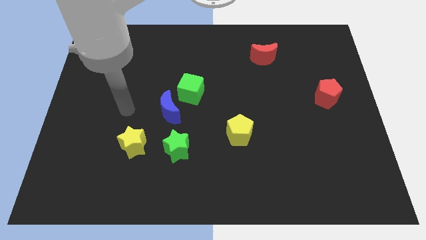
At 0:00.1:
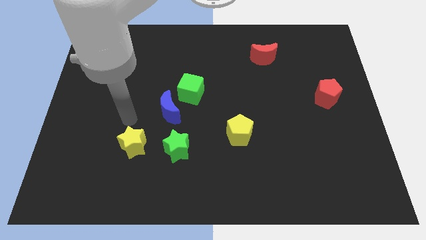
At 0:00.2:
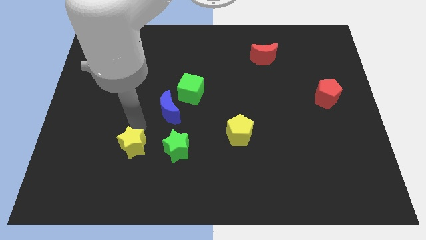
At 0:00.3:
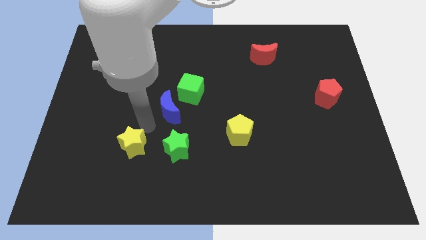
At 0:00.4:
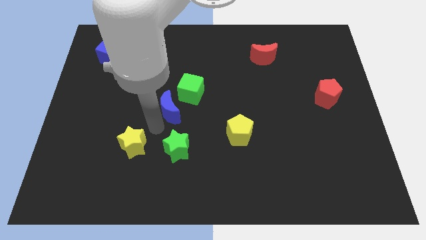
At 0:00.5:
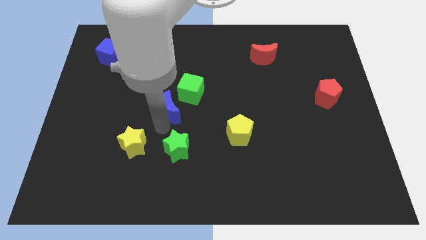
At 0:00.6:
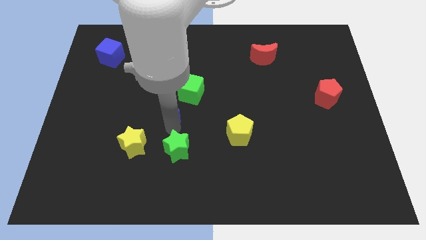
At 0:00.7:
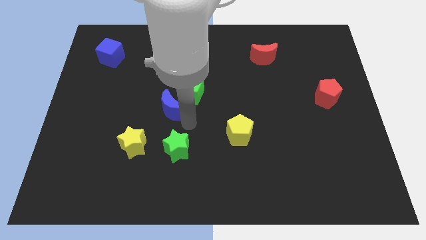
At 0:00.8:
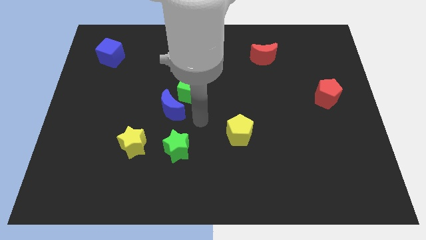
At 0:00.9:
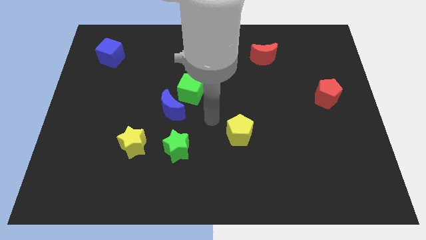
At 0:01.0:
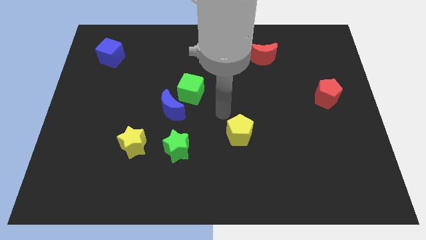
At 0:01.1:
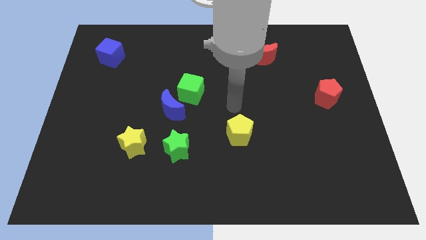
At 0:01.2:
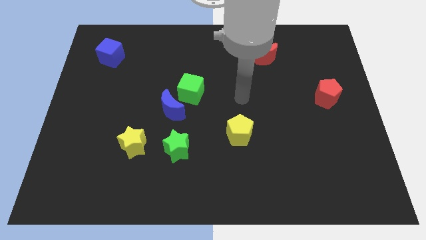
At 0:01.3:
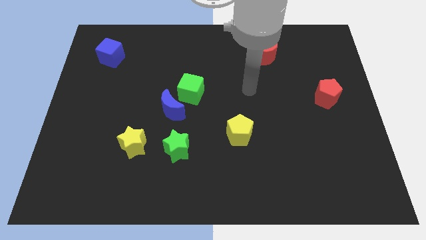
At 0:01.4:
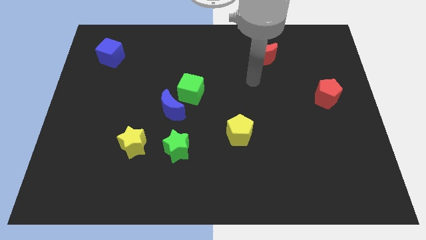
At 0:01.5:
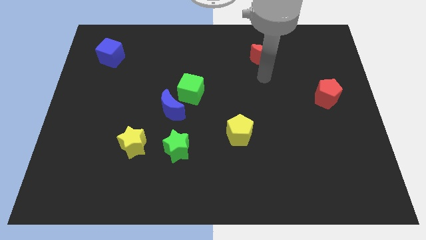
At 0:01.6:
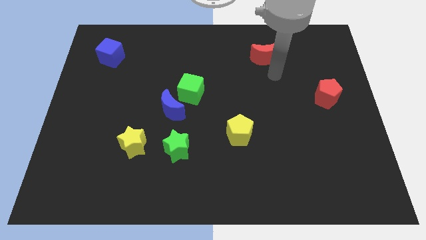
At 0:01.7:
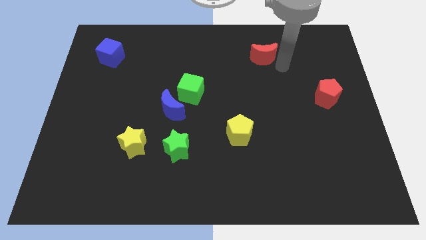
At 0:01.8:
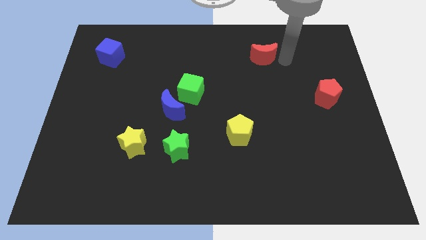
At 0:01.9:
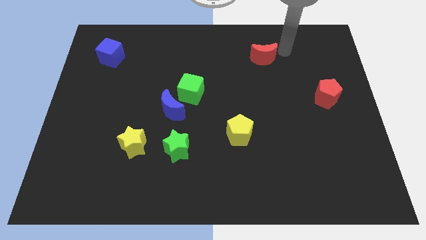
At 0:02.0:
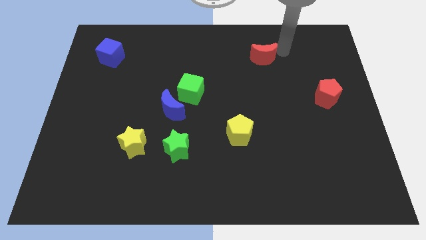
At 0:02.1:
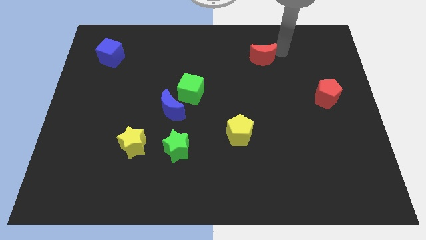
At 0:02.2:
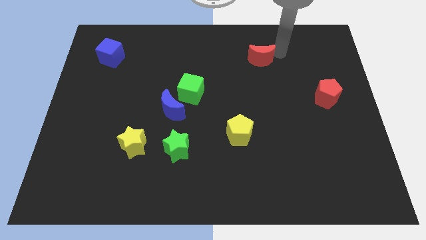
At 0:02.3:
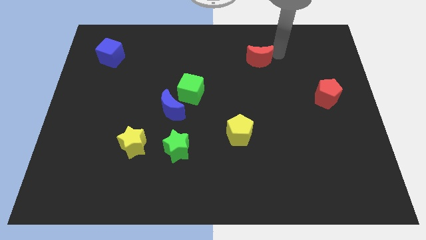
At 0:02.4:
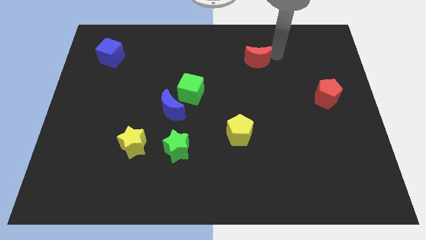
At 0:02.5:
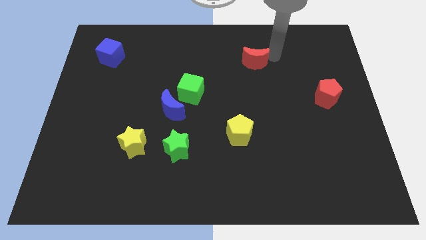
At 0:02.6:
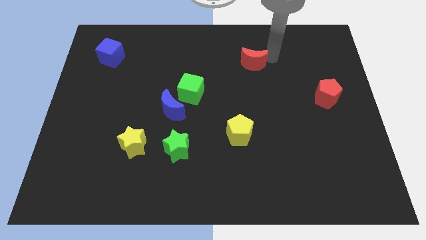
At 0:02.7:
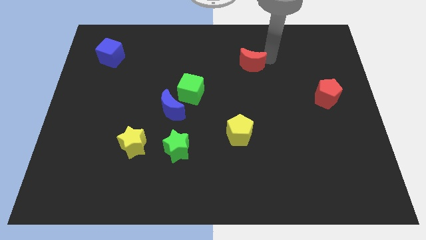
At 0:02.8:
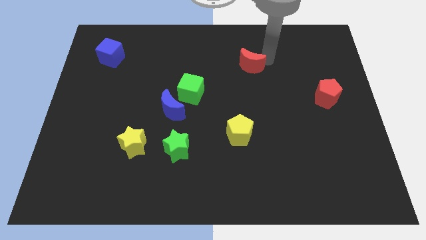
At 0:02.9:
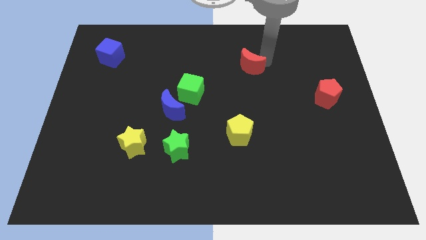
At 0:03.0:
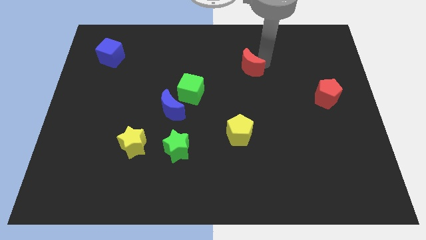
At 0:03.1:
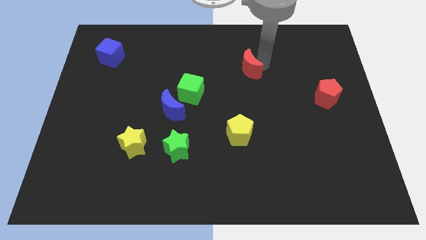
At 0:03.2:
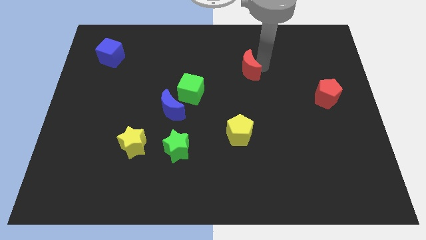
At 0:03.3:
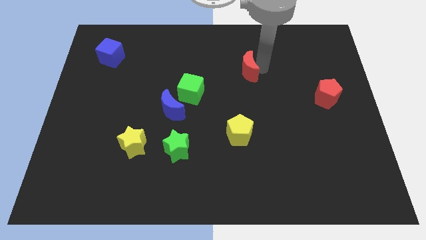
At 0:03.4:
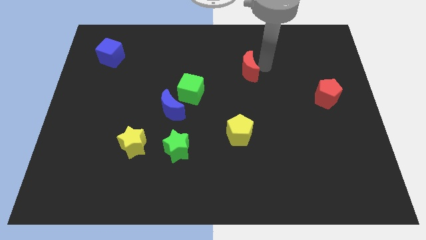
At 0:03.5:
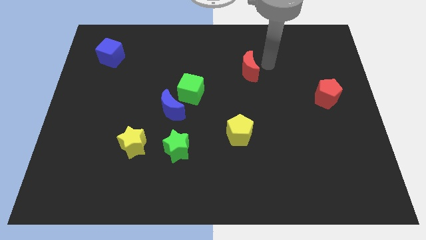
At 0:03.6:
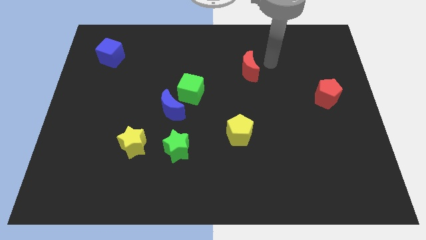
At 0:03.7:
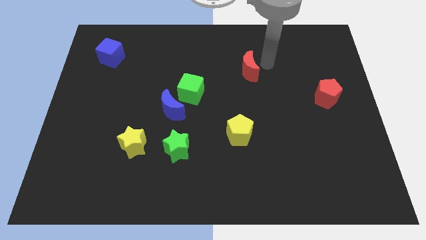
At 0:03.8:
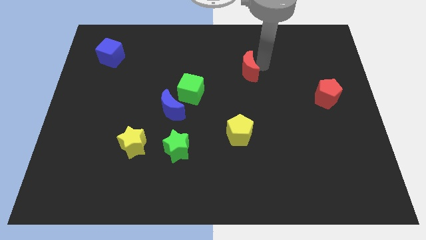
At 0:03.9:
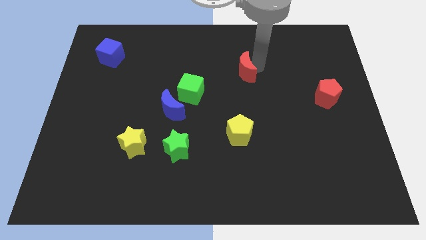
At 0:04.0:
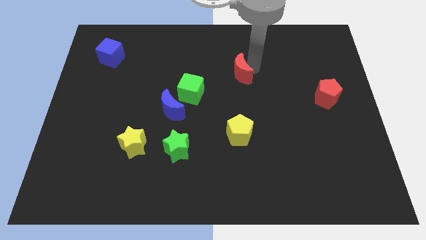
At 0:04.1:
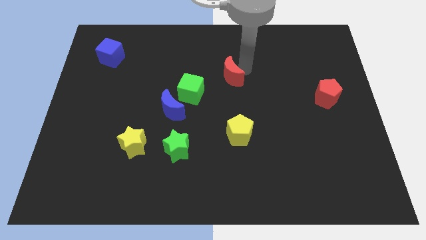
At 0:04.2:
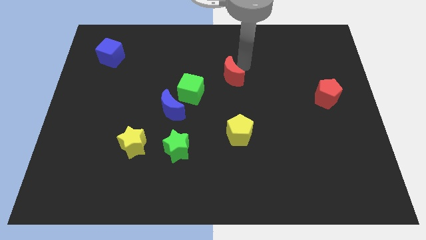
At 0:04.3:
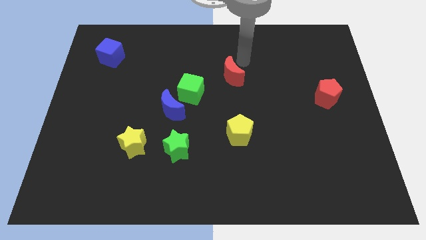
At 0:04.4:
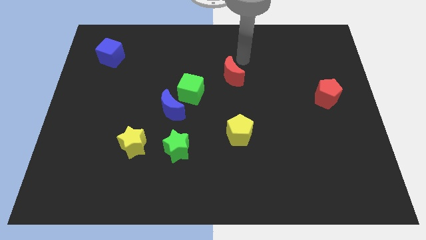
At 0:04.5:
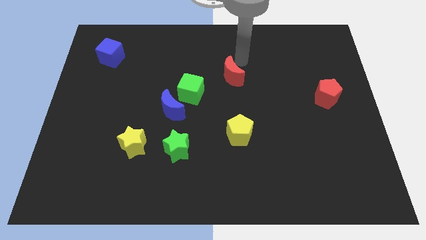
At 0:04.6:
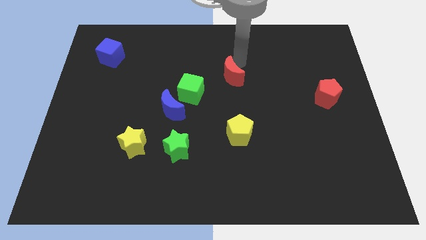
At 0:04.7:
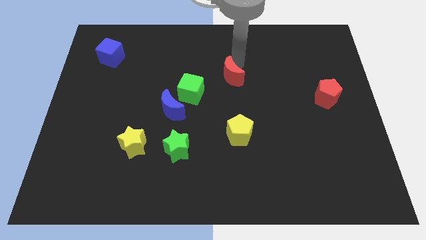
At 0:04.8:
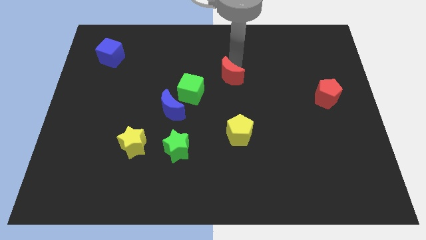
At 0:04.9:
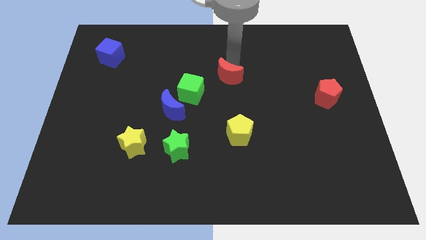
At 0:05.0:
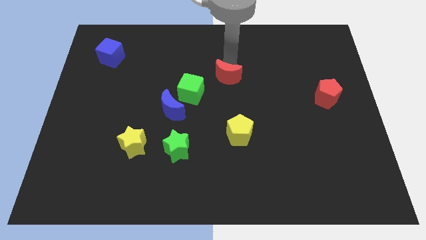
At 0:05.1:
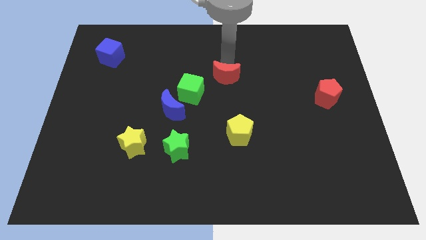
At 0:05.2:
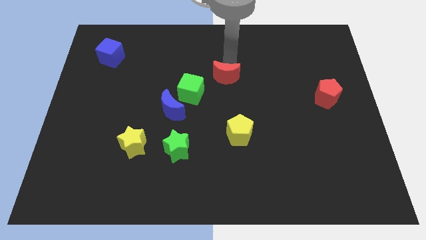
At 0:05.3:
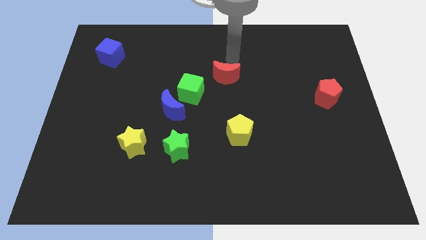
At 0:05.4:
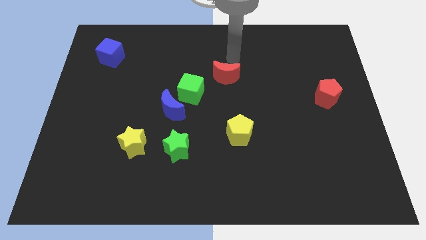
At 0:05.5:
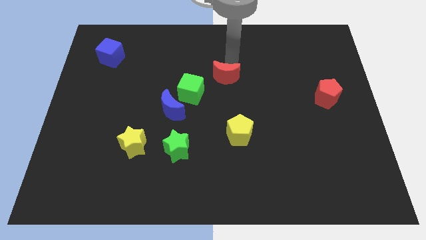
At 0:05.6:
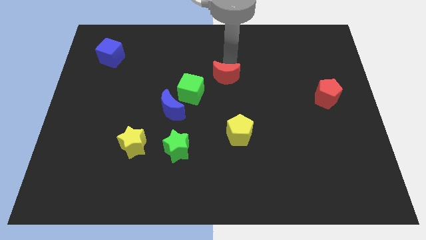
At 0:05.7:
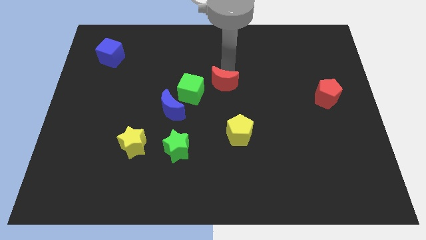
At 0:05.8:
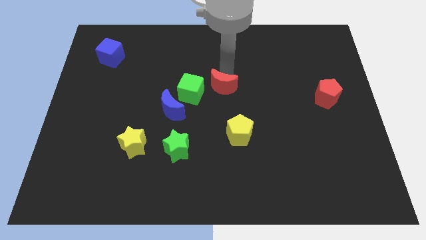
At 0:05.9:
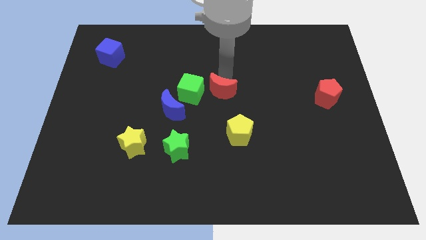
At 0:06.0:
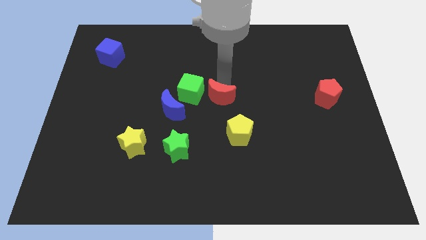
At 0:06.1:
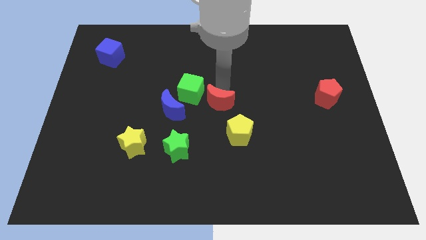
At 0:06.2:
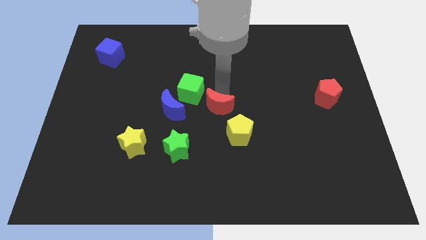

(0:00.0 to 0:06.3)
slide the red moon downwards and left

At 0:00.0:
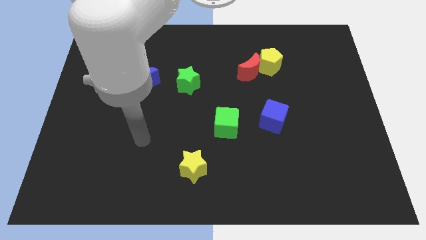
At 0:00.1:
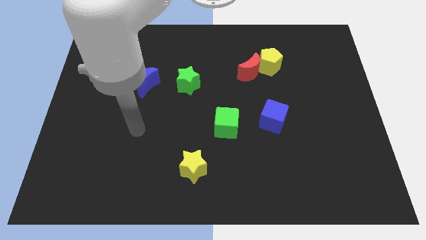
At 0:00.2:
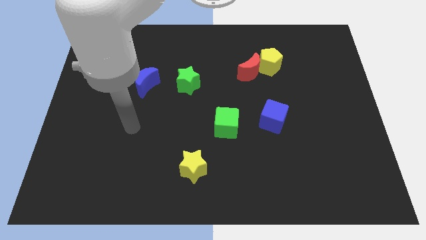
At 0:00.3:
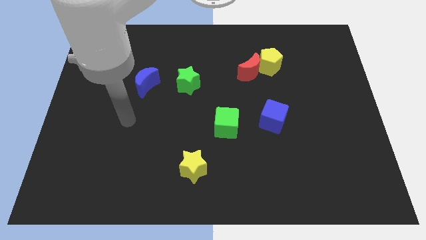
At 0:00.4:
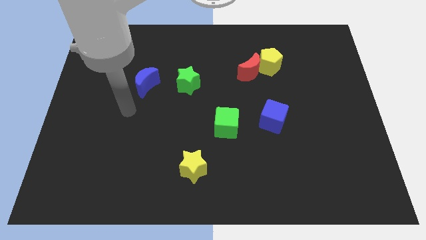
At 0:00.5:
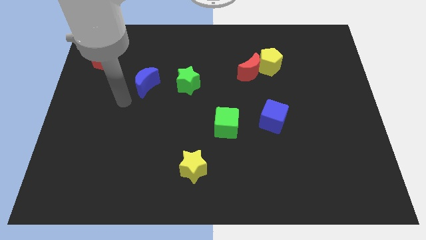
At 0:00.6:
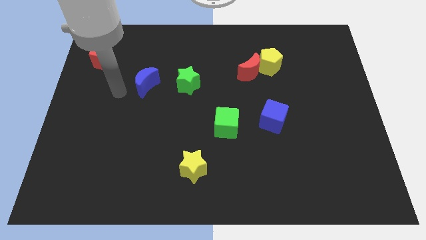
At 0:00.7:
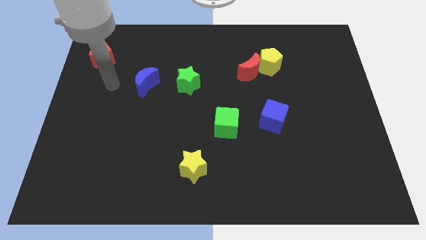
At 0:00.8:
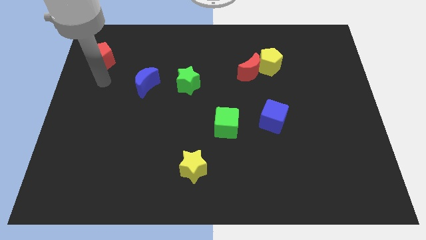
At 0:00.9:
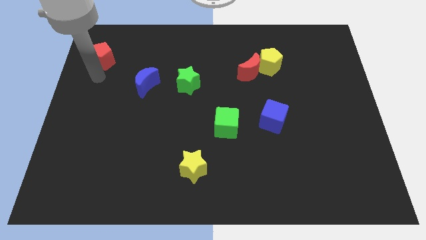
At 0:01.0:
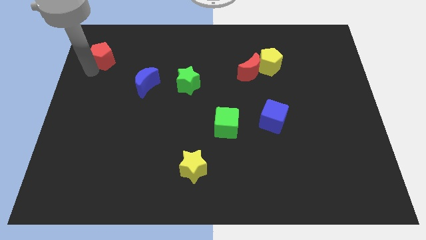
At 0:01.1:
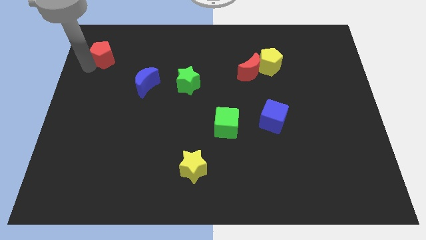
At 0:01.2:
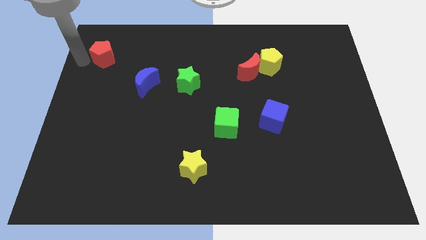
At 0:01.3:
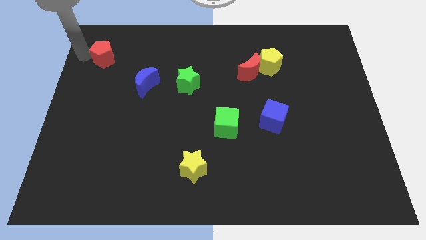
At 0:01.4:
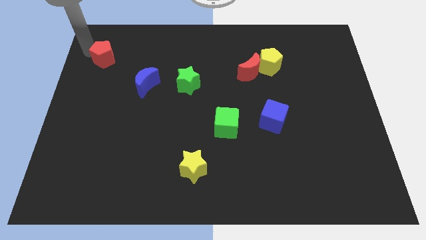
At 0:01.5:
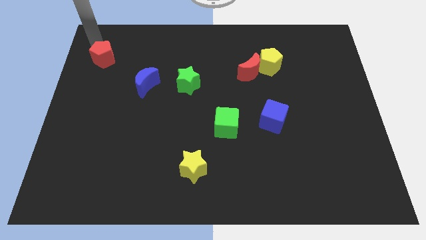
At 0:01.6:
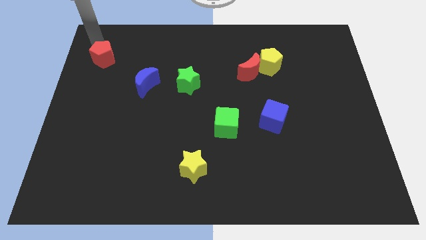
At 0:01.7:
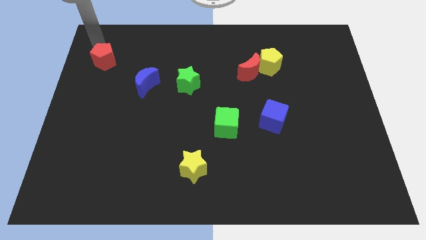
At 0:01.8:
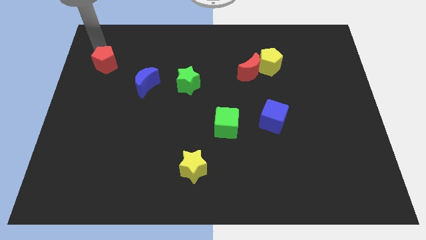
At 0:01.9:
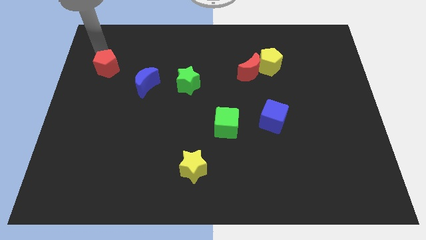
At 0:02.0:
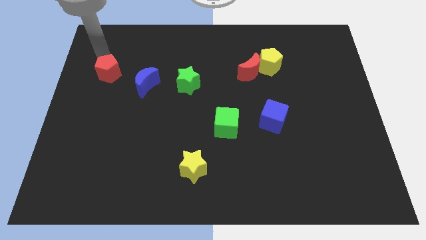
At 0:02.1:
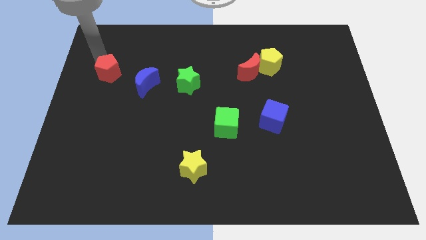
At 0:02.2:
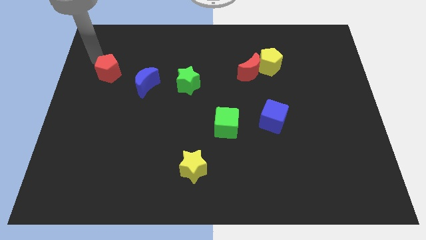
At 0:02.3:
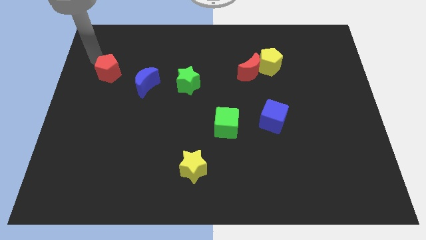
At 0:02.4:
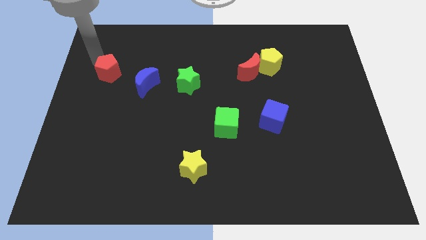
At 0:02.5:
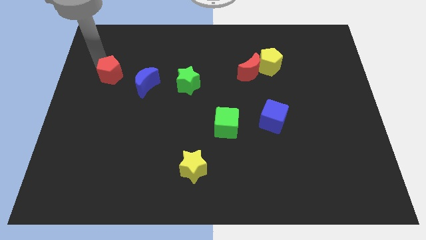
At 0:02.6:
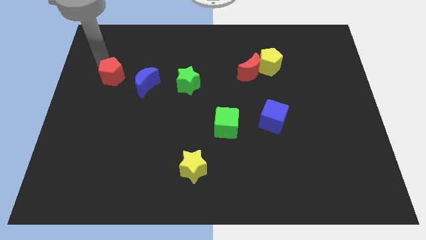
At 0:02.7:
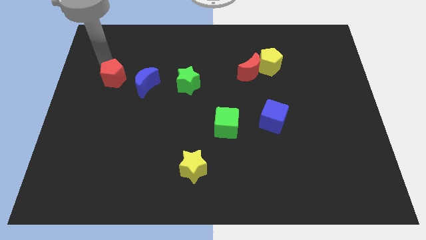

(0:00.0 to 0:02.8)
push the red pentagon down and then right somewhat
